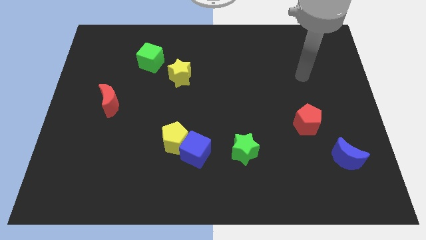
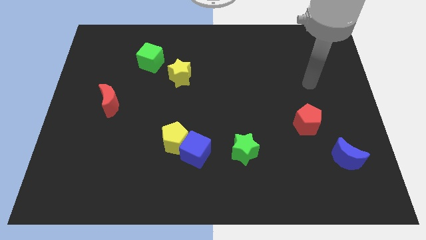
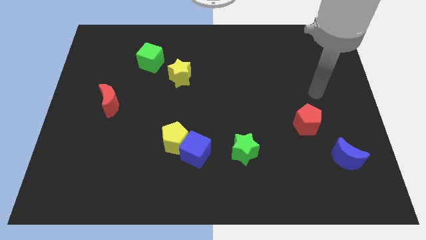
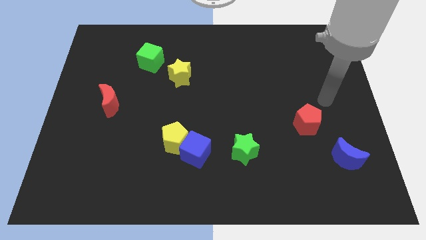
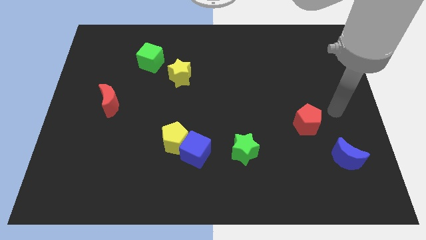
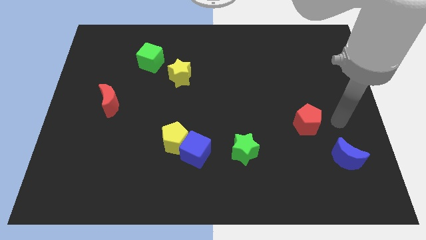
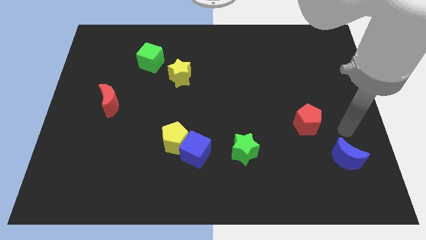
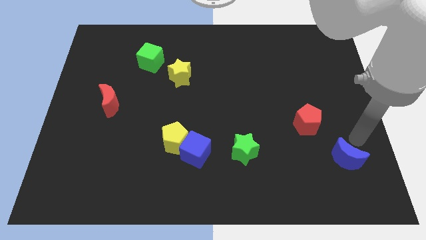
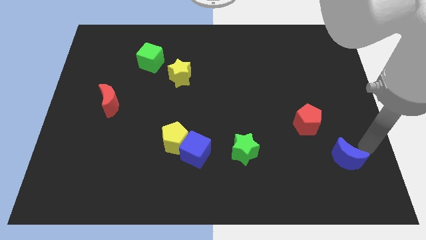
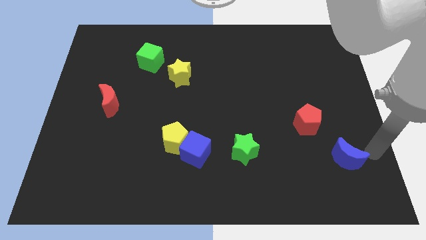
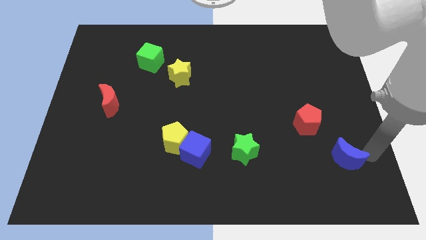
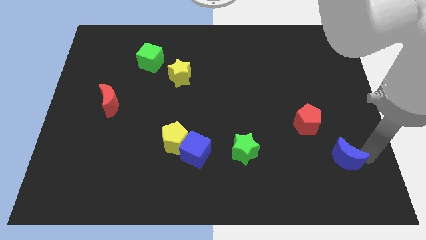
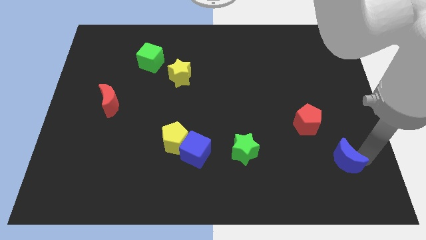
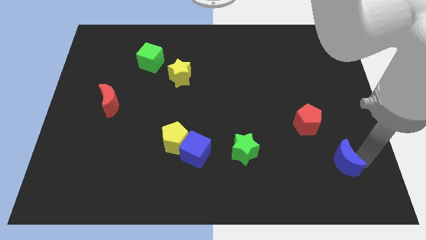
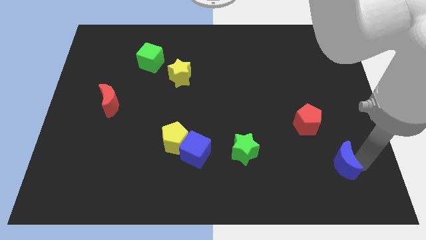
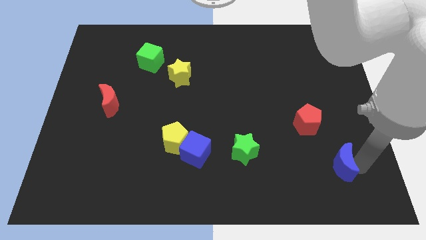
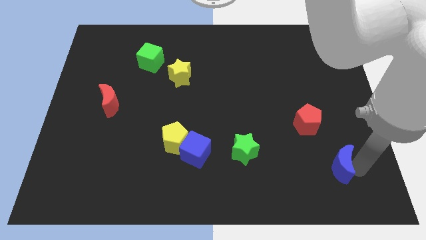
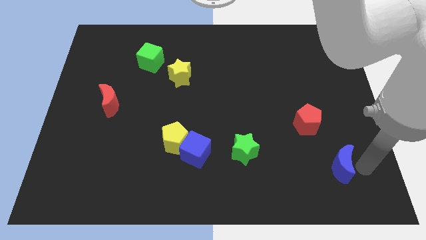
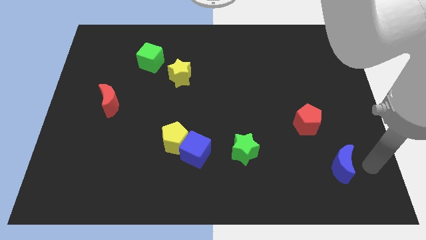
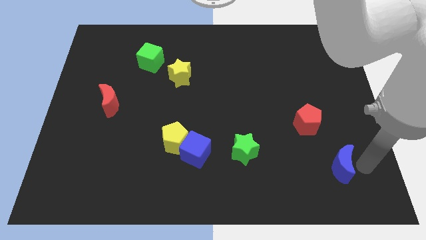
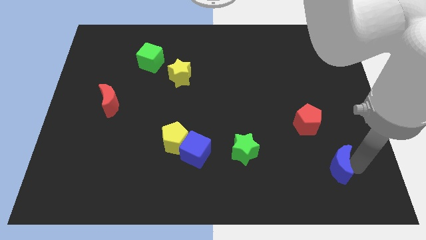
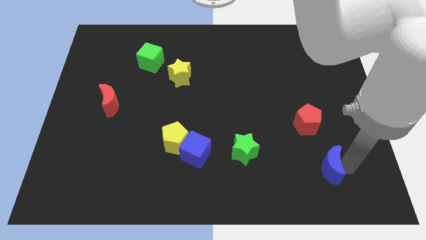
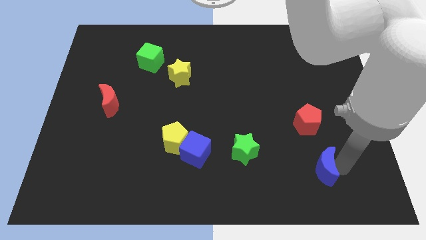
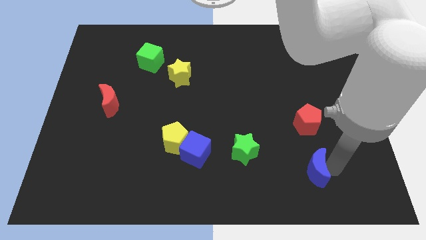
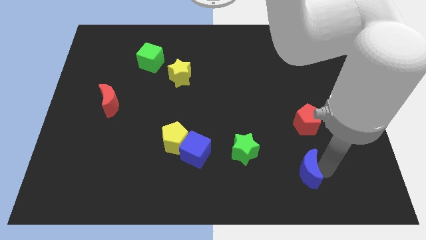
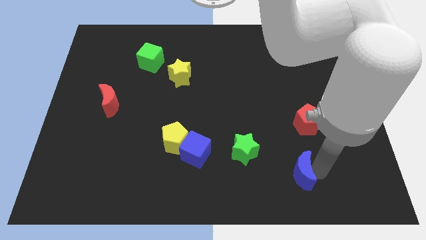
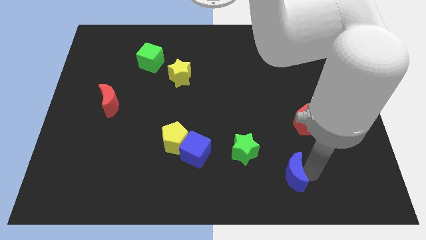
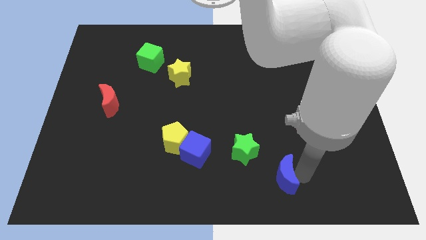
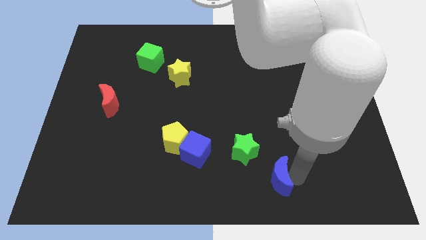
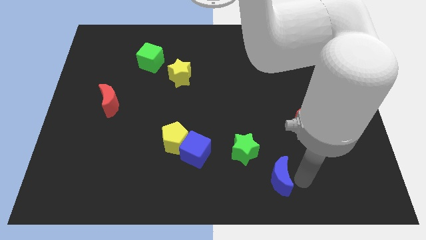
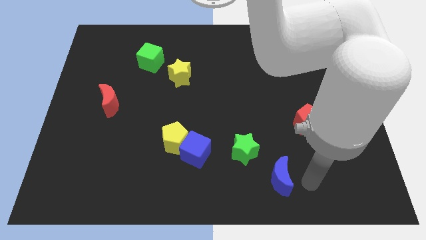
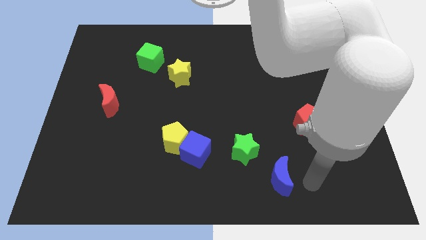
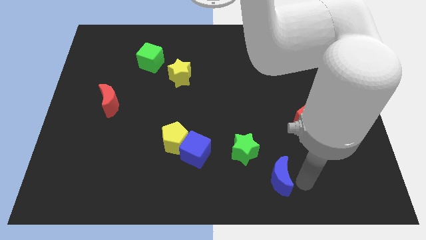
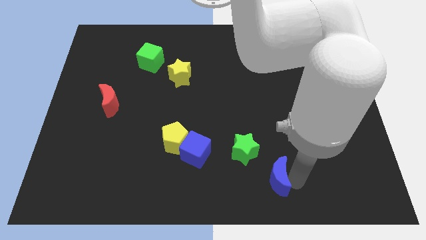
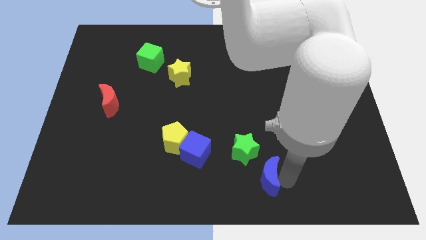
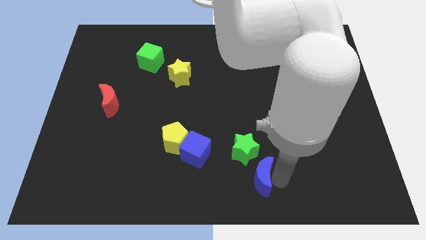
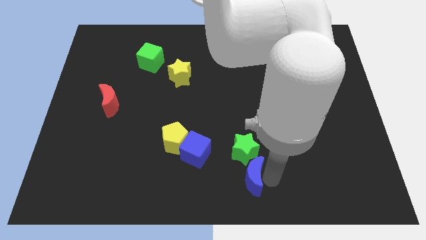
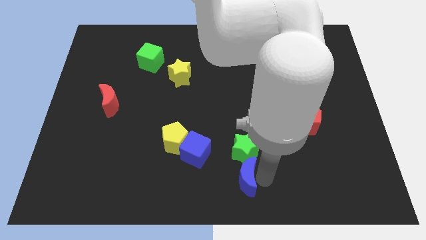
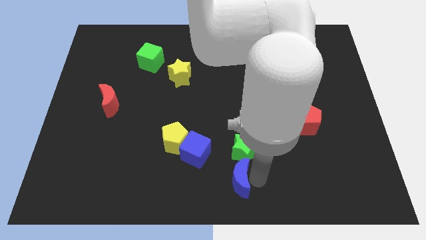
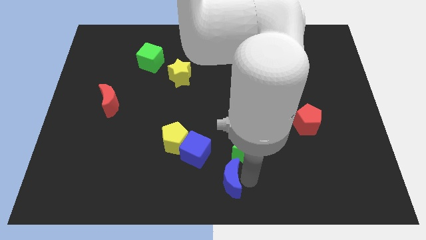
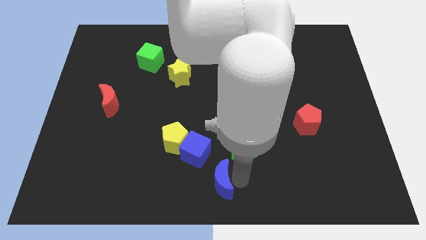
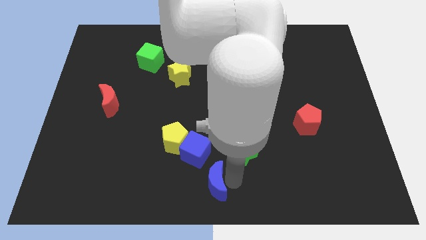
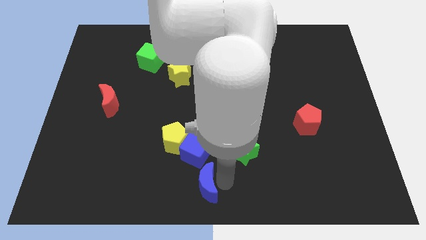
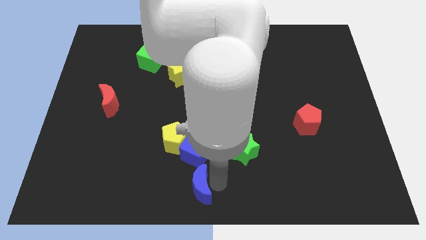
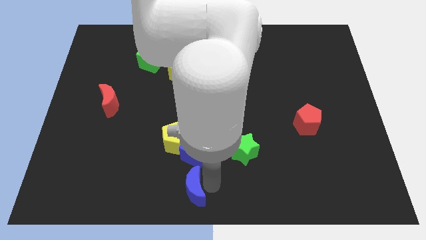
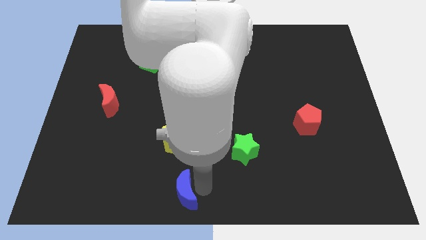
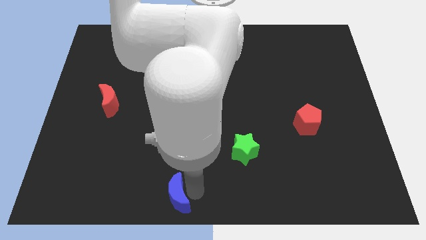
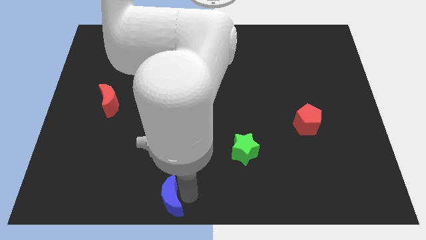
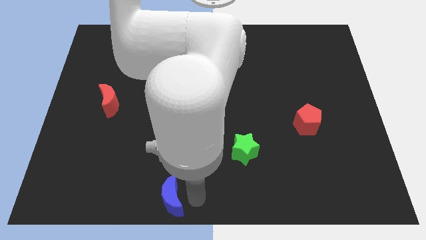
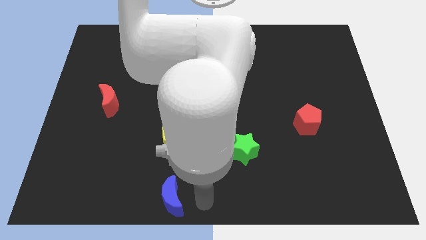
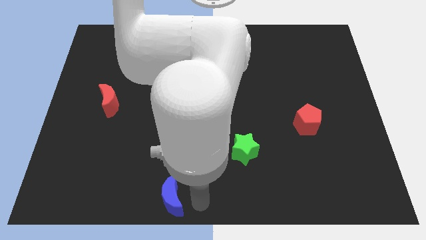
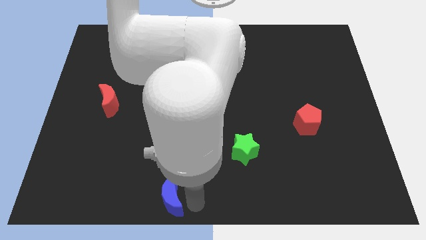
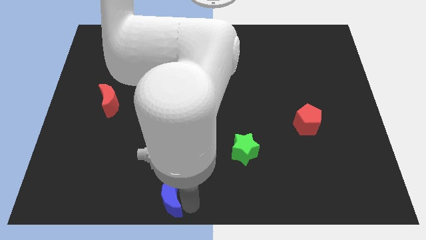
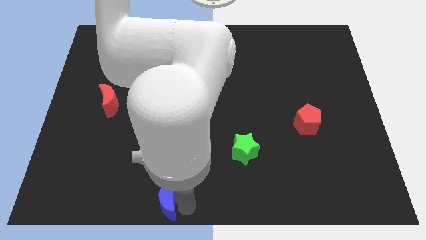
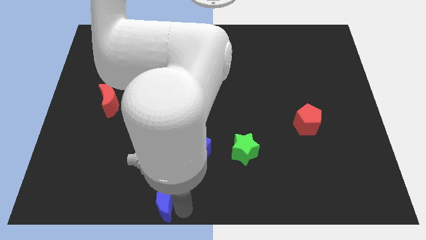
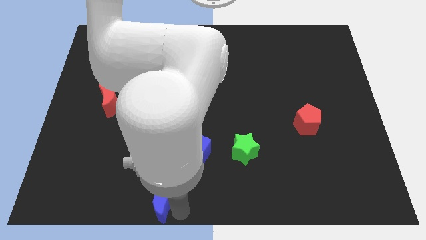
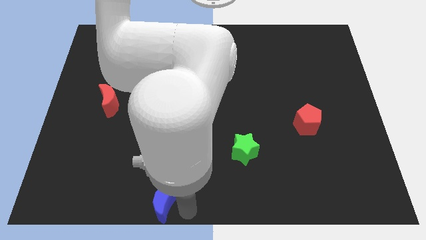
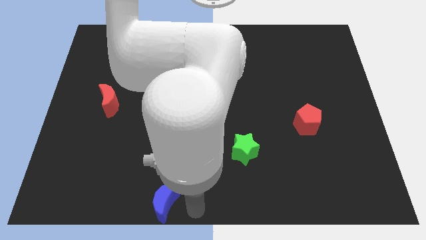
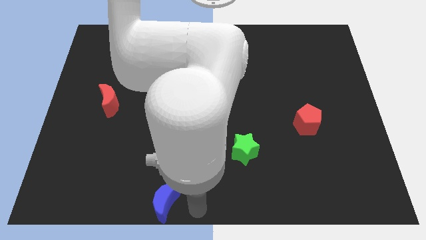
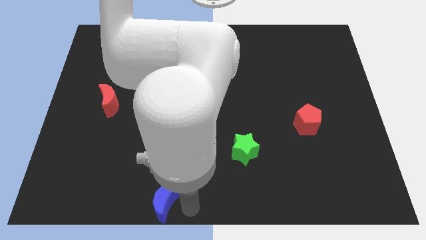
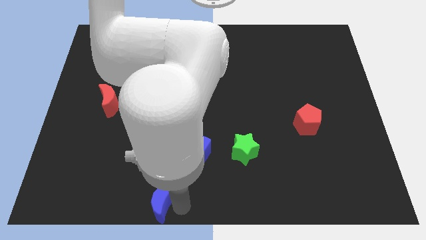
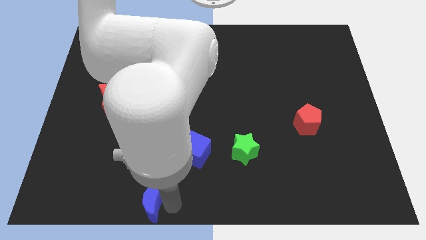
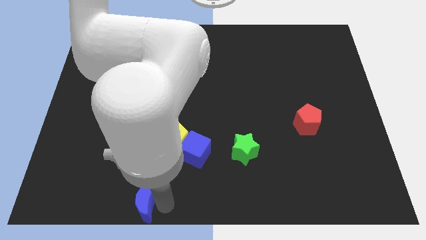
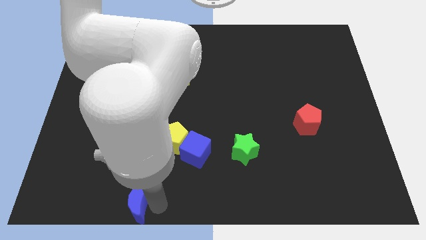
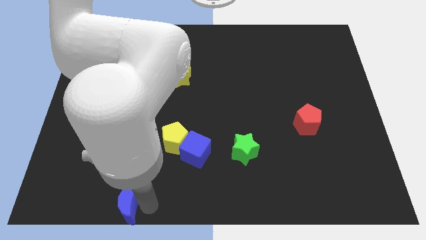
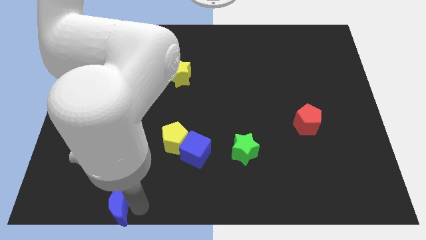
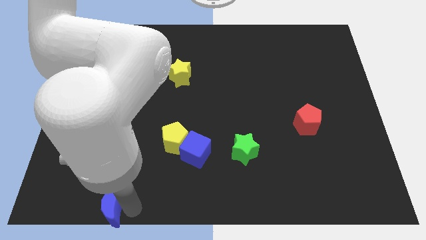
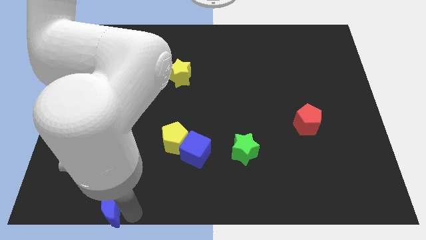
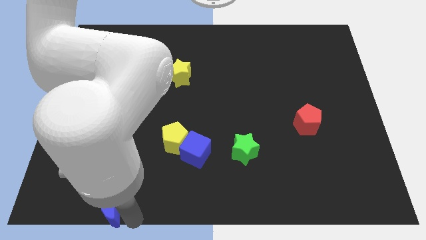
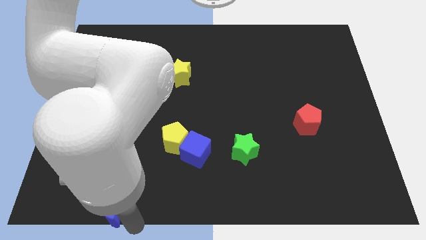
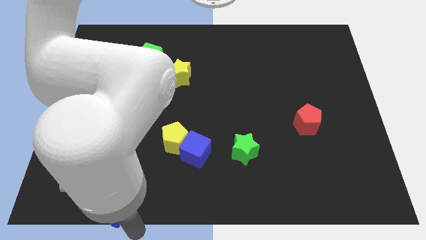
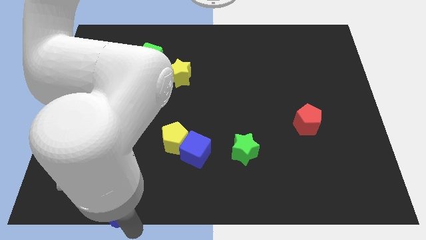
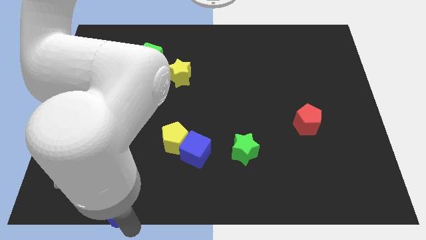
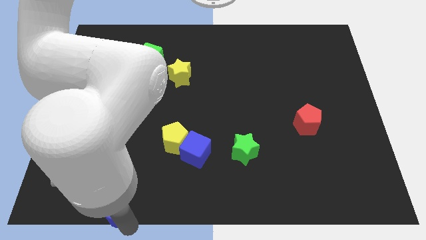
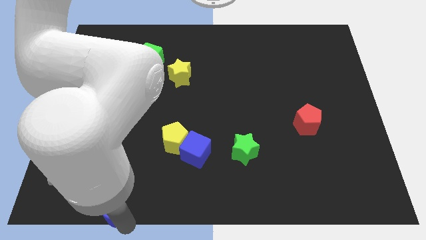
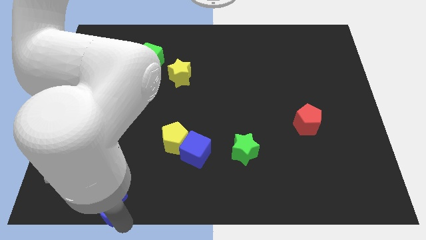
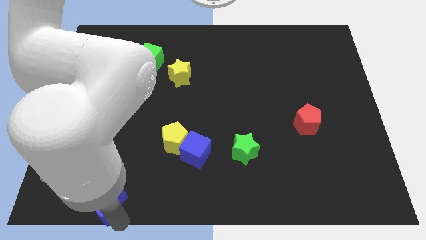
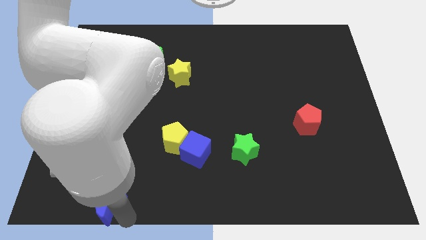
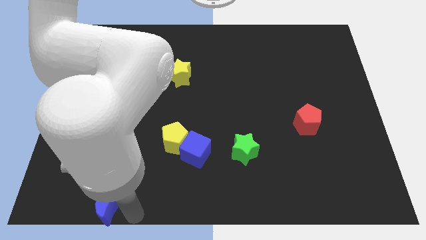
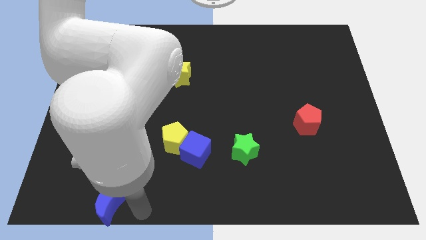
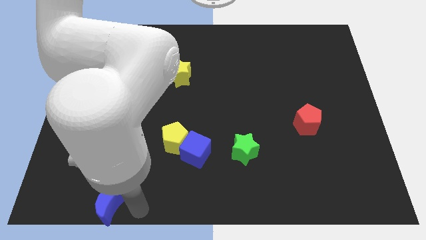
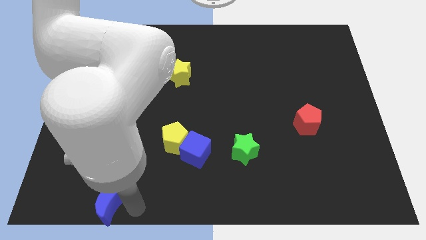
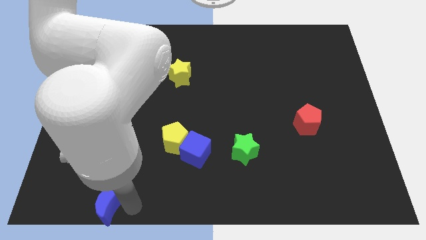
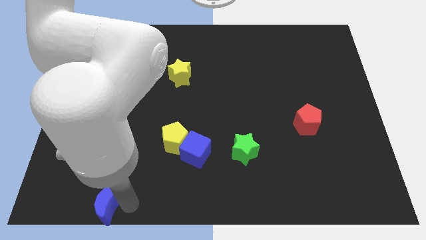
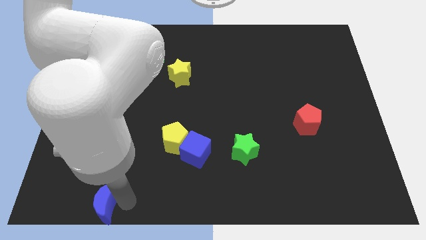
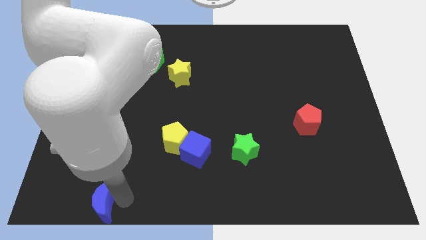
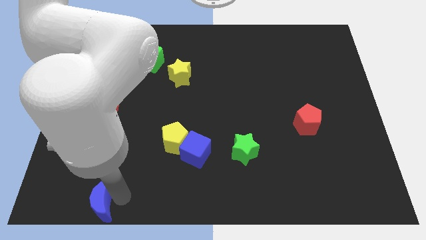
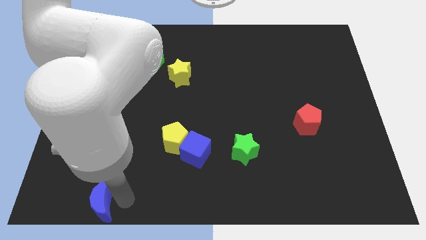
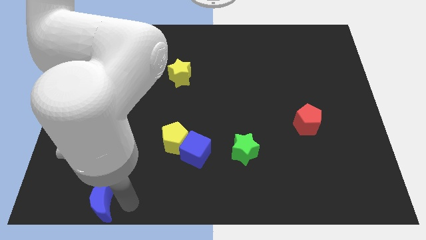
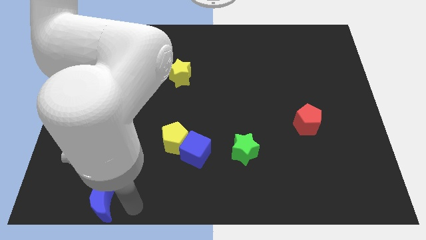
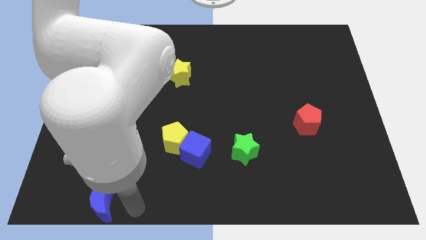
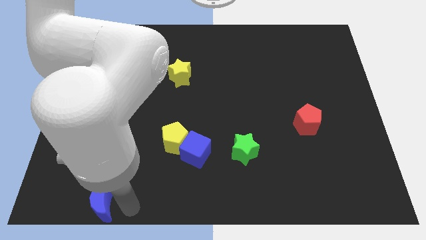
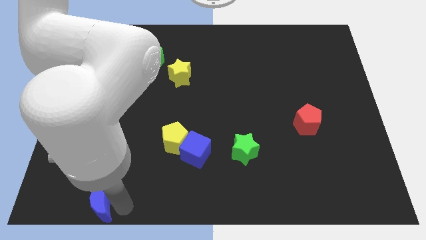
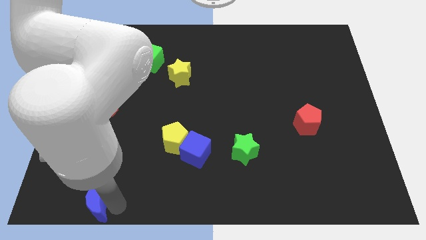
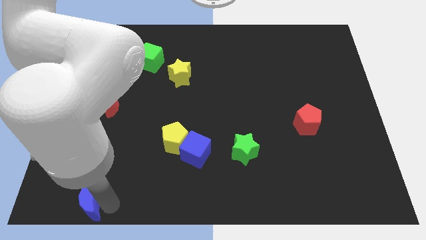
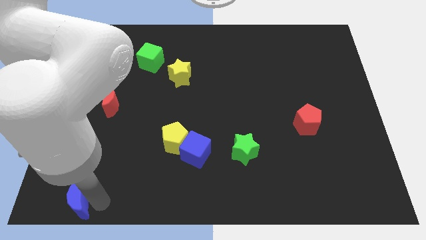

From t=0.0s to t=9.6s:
move the blue moon to the bottom left of the board
